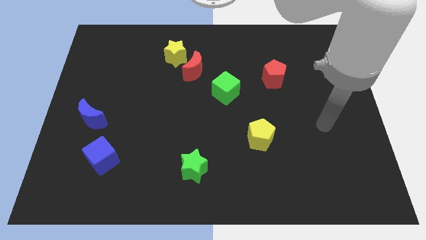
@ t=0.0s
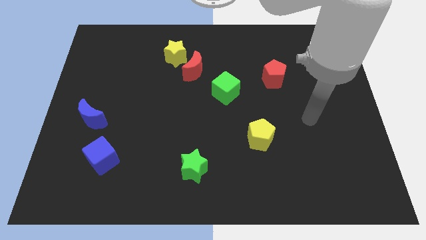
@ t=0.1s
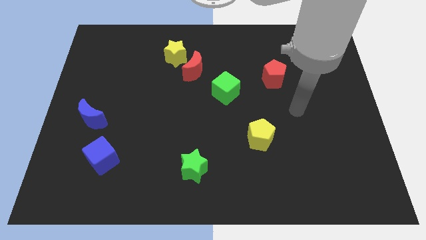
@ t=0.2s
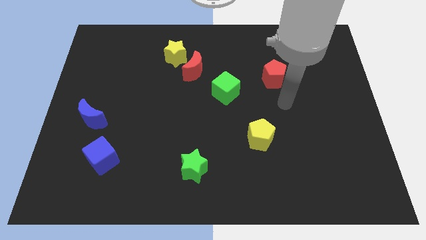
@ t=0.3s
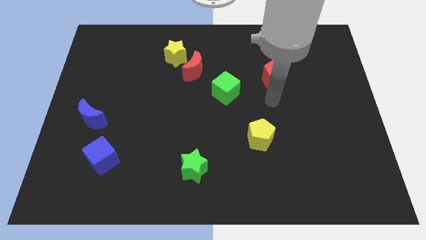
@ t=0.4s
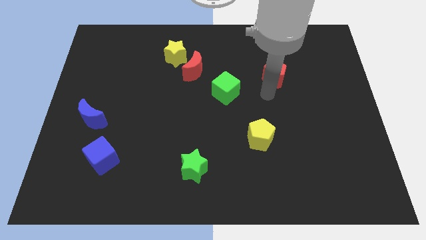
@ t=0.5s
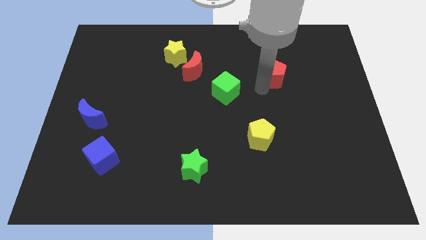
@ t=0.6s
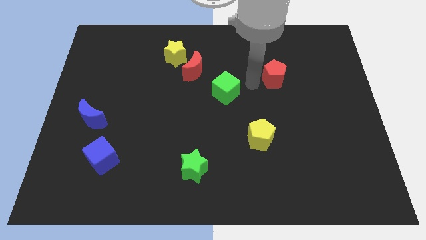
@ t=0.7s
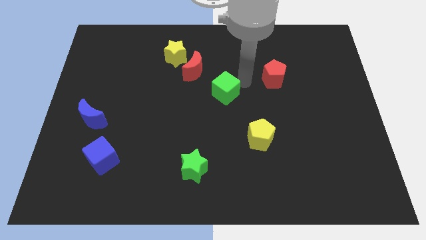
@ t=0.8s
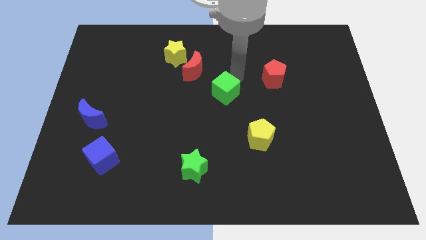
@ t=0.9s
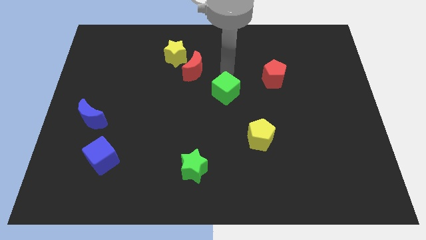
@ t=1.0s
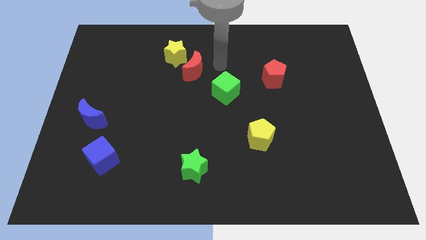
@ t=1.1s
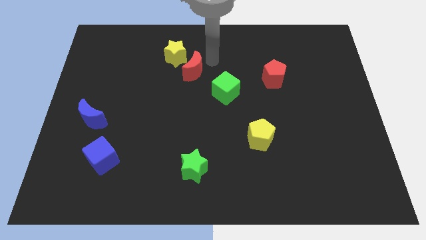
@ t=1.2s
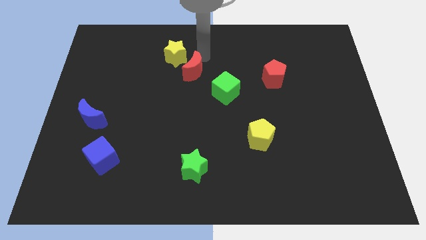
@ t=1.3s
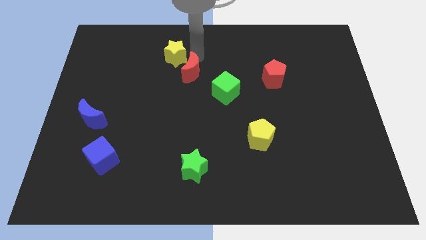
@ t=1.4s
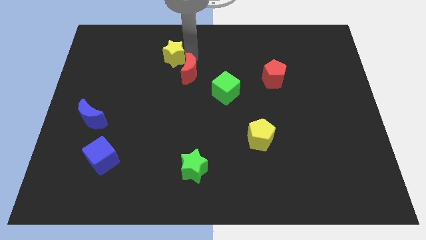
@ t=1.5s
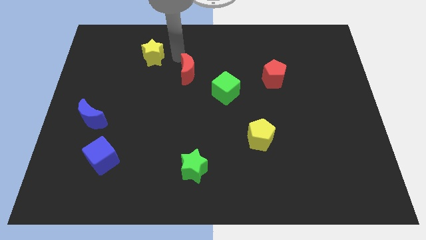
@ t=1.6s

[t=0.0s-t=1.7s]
move the red moon away from the yellow star

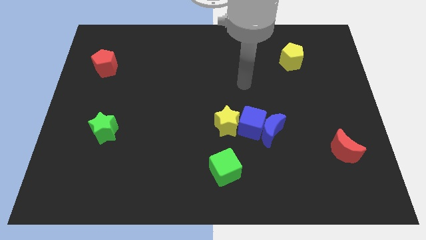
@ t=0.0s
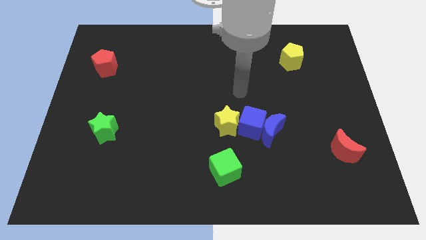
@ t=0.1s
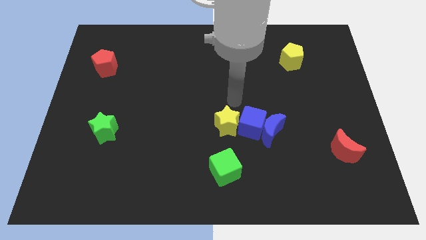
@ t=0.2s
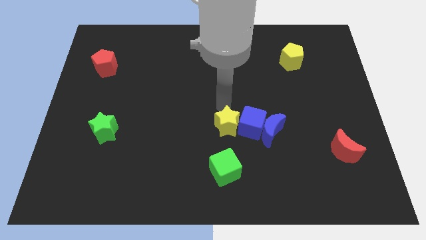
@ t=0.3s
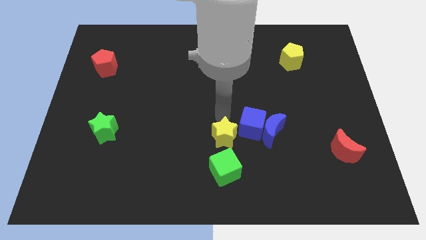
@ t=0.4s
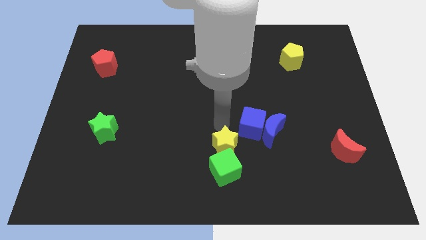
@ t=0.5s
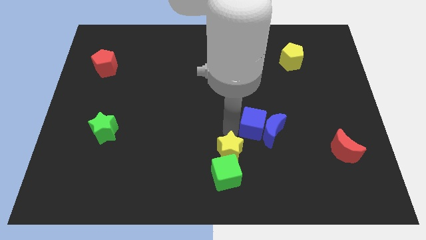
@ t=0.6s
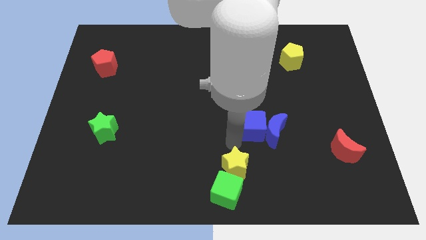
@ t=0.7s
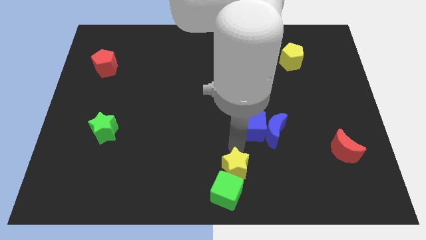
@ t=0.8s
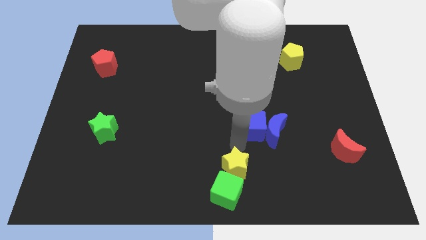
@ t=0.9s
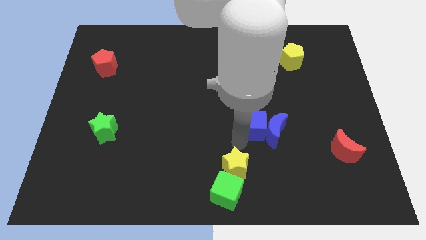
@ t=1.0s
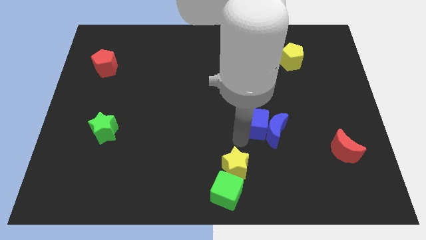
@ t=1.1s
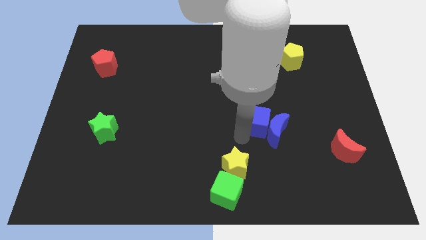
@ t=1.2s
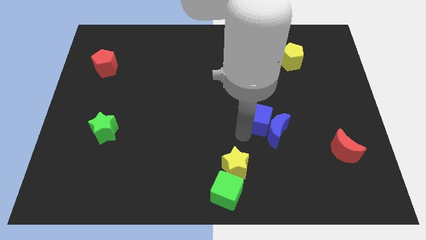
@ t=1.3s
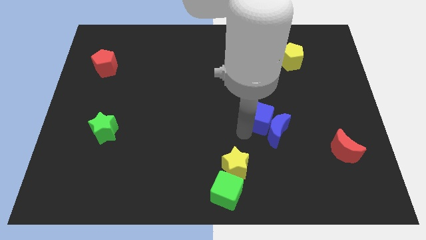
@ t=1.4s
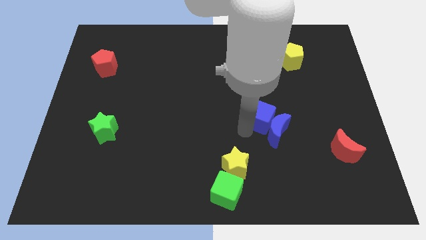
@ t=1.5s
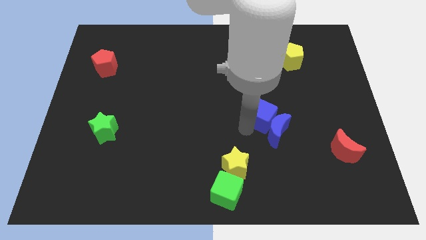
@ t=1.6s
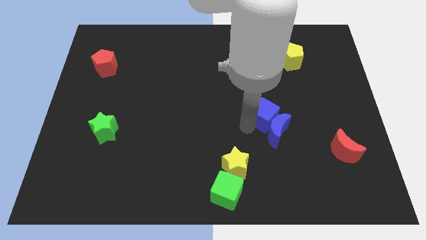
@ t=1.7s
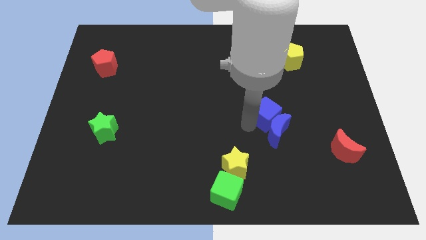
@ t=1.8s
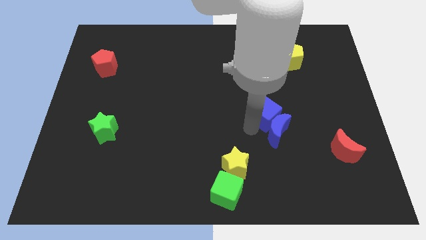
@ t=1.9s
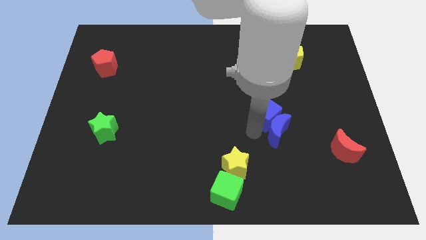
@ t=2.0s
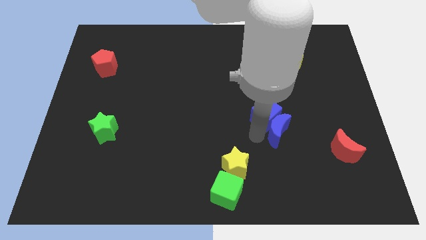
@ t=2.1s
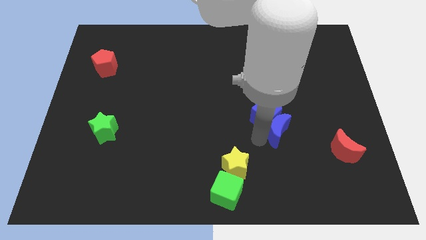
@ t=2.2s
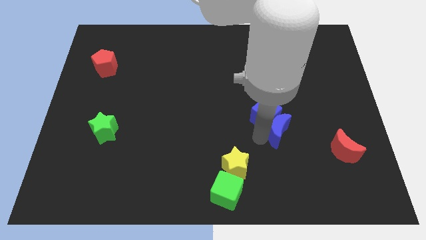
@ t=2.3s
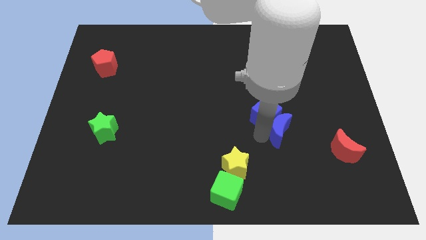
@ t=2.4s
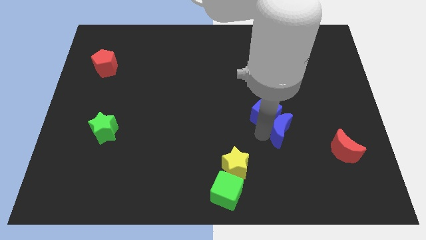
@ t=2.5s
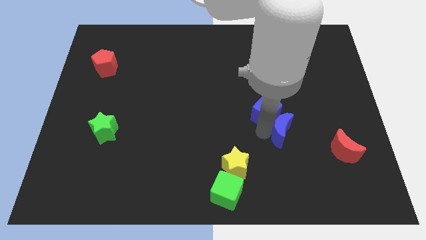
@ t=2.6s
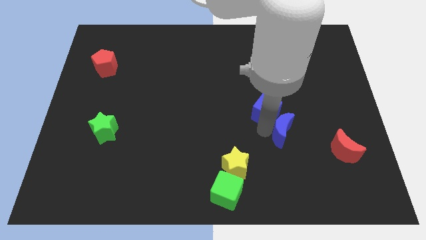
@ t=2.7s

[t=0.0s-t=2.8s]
separate the blue cube from the blue moon and yellow star

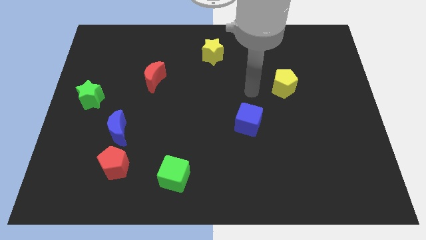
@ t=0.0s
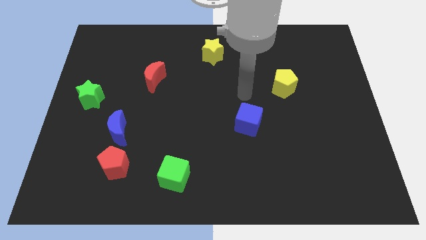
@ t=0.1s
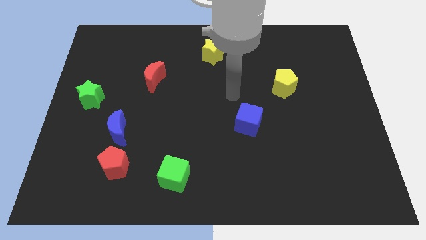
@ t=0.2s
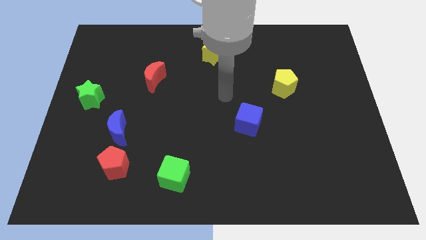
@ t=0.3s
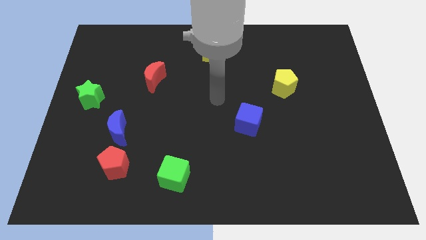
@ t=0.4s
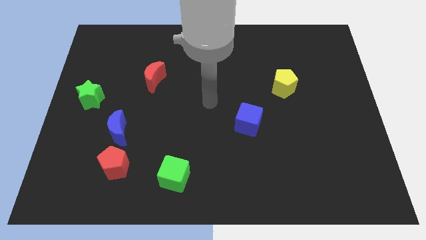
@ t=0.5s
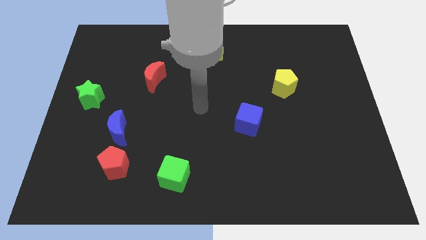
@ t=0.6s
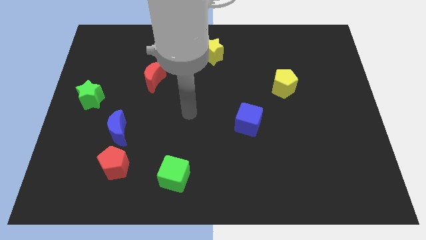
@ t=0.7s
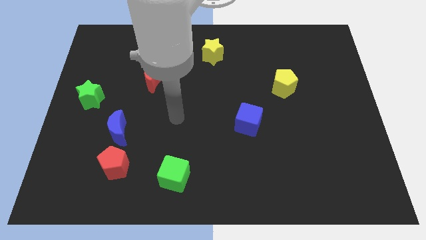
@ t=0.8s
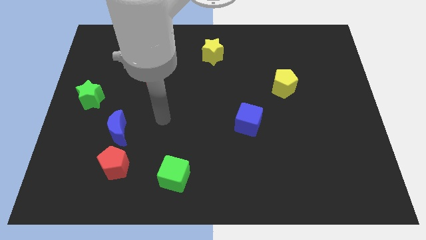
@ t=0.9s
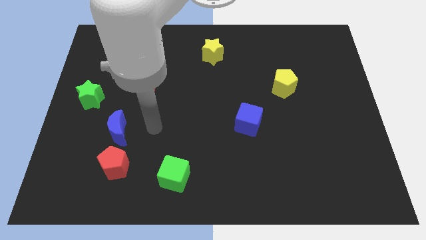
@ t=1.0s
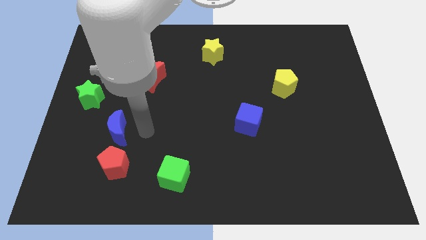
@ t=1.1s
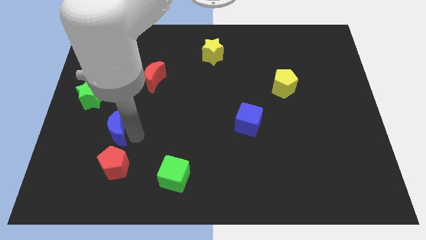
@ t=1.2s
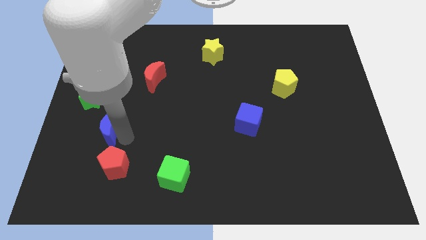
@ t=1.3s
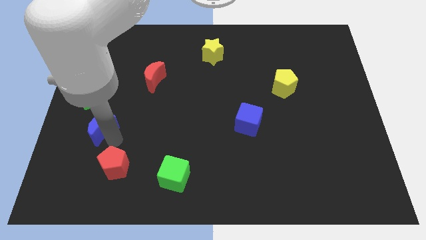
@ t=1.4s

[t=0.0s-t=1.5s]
separate the red pentagon from the blue moon

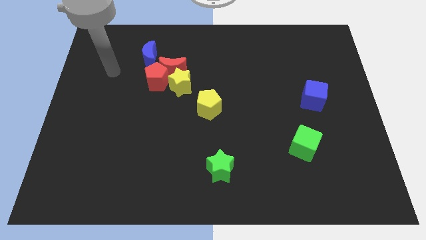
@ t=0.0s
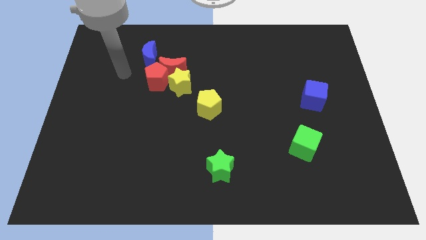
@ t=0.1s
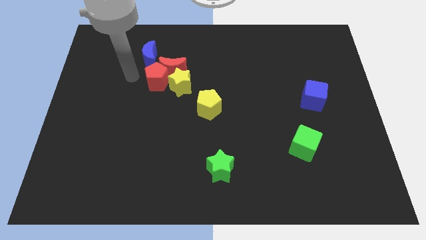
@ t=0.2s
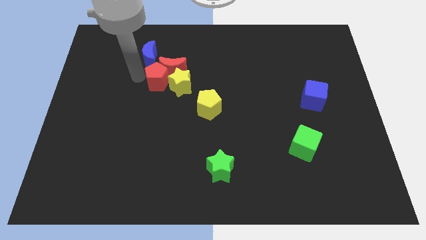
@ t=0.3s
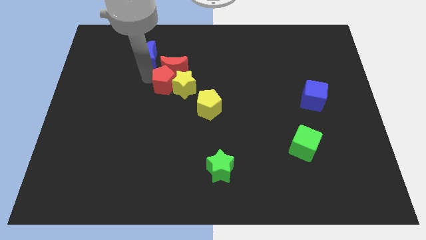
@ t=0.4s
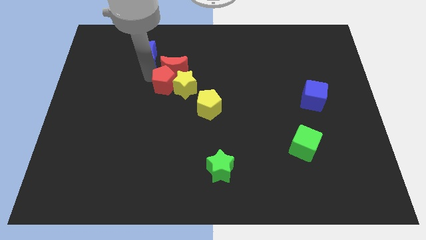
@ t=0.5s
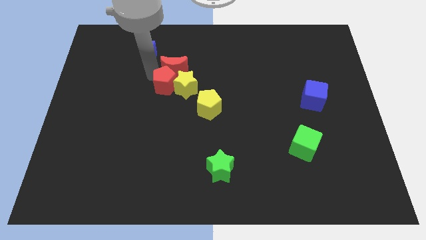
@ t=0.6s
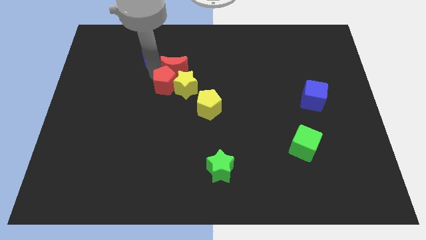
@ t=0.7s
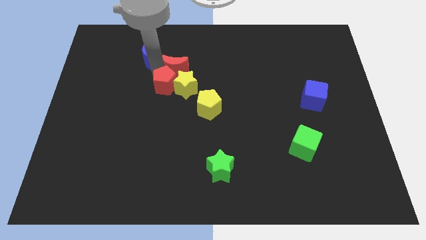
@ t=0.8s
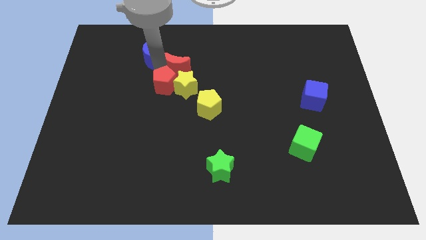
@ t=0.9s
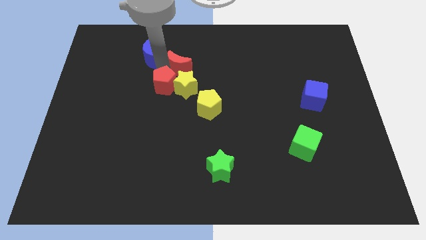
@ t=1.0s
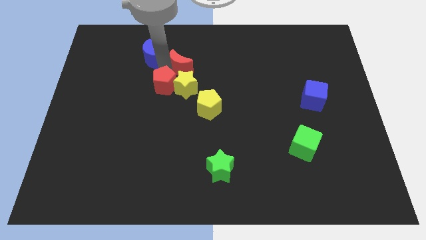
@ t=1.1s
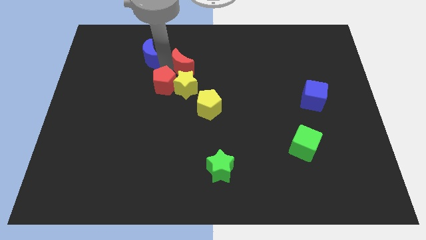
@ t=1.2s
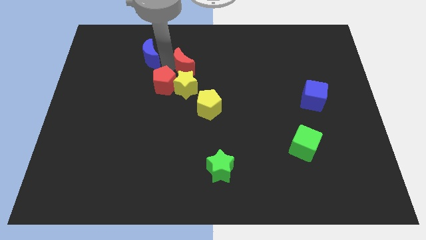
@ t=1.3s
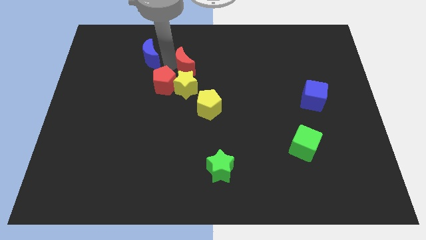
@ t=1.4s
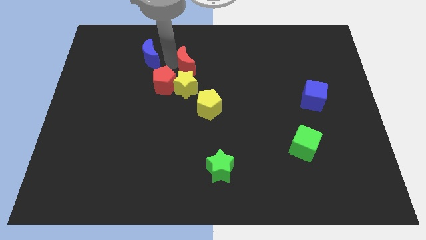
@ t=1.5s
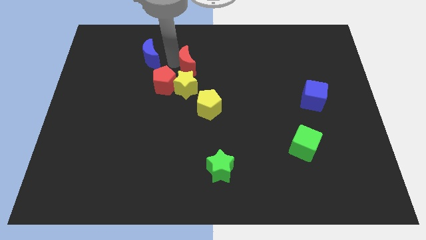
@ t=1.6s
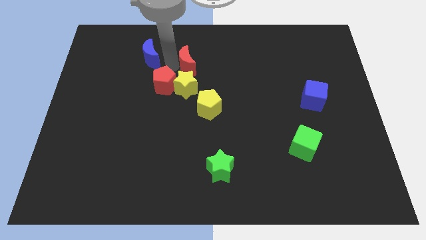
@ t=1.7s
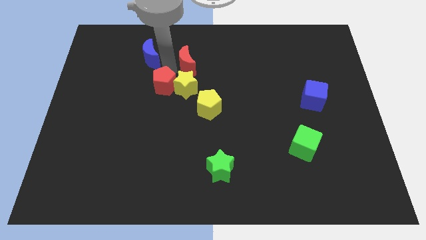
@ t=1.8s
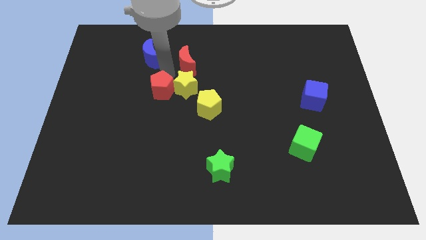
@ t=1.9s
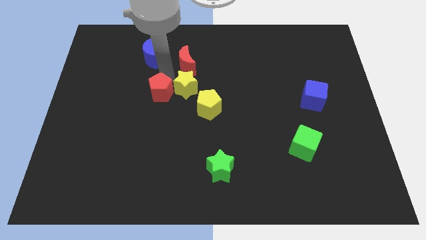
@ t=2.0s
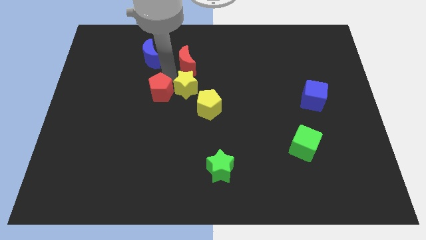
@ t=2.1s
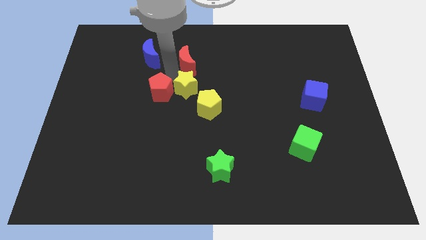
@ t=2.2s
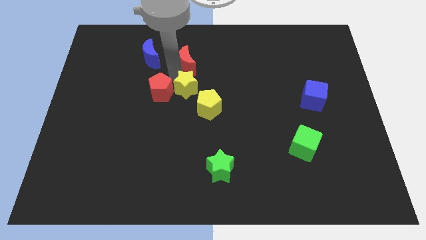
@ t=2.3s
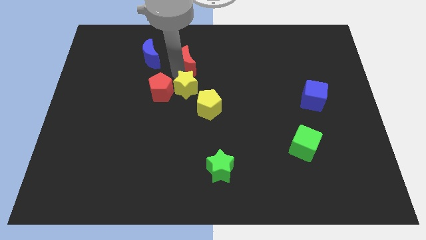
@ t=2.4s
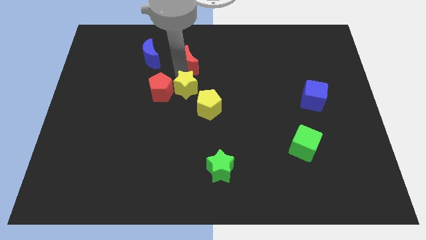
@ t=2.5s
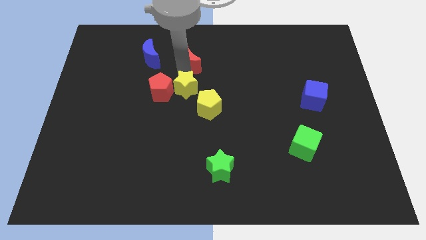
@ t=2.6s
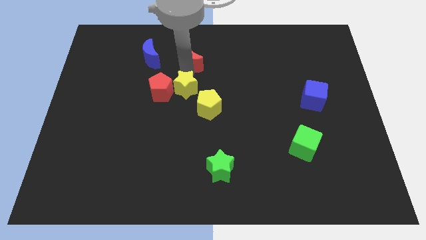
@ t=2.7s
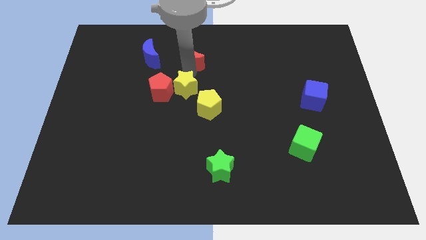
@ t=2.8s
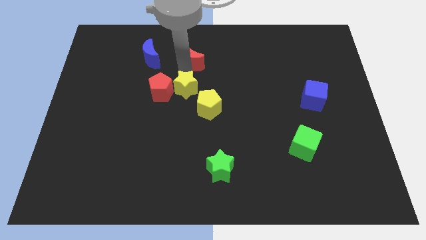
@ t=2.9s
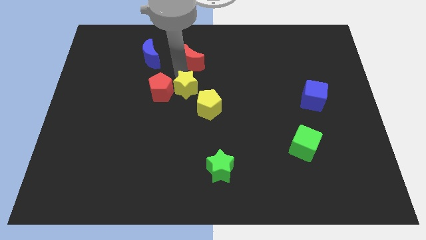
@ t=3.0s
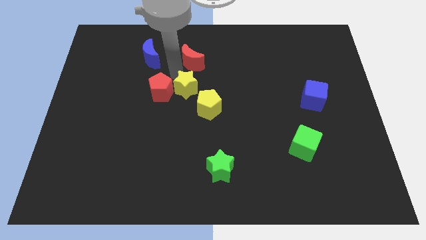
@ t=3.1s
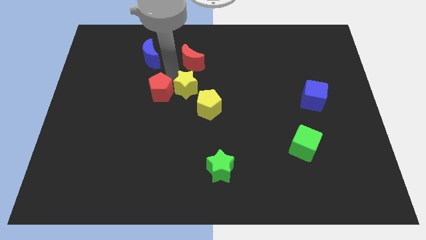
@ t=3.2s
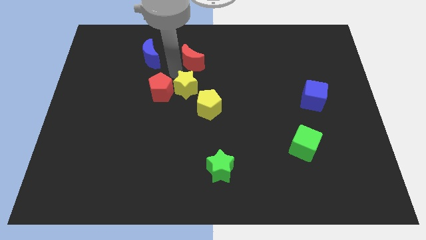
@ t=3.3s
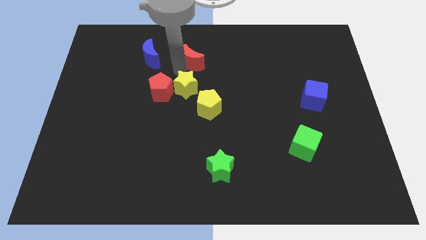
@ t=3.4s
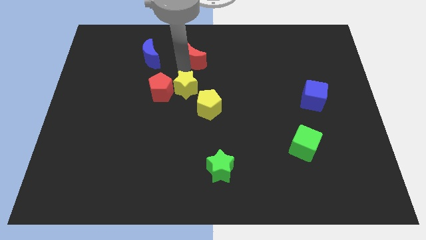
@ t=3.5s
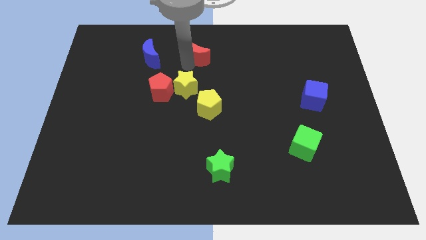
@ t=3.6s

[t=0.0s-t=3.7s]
separate the red moon from the red pentagon, yellow star, and blue moon
